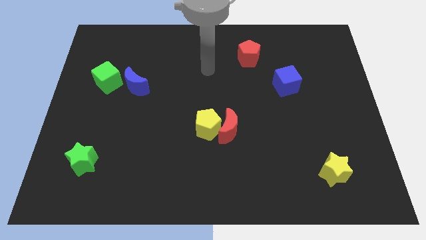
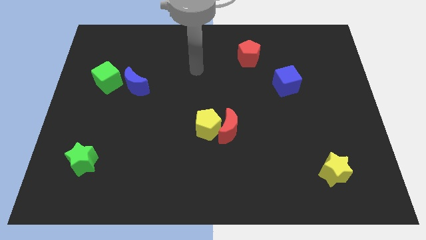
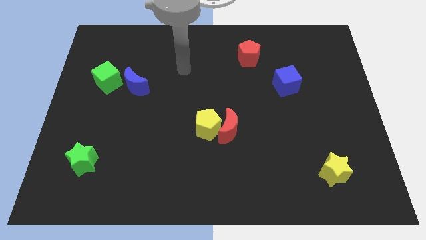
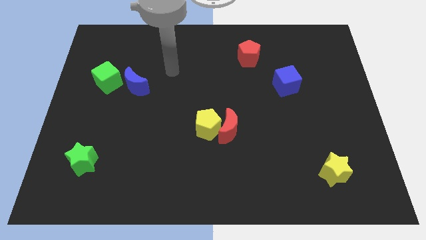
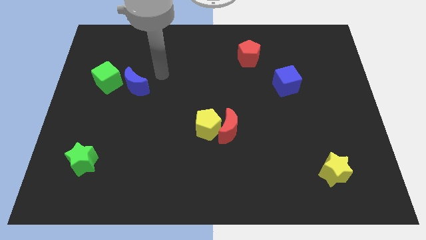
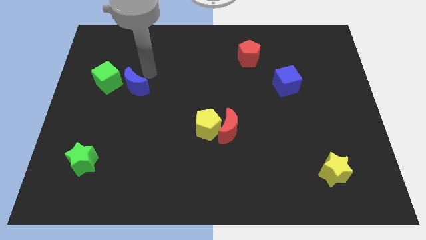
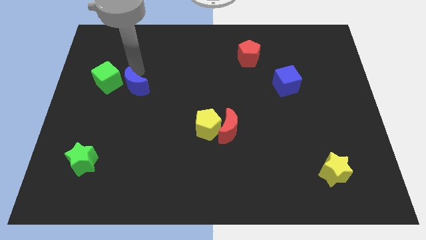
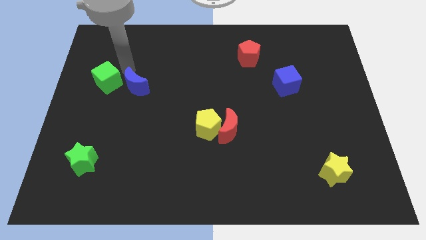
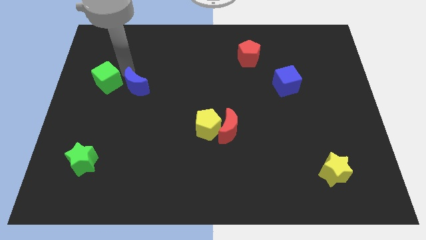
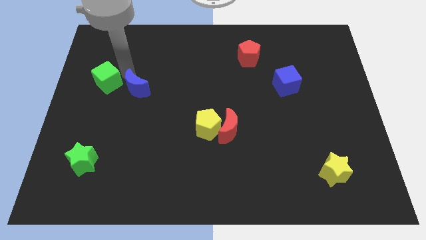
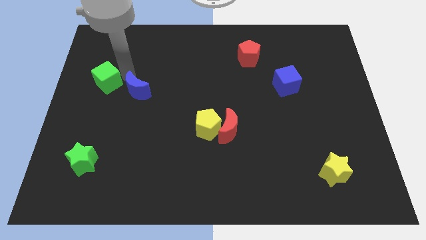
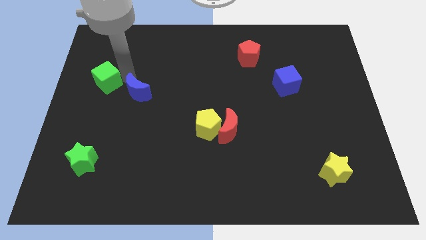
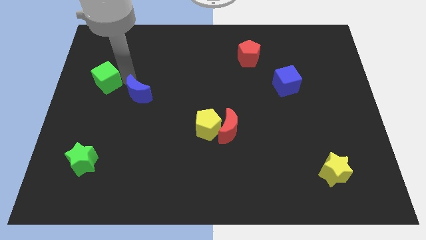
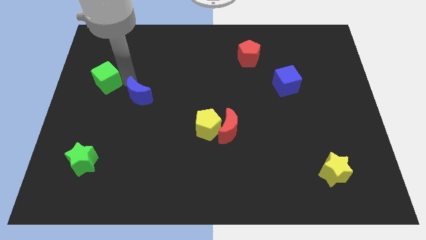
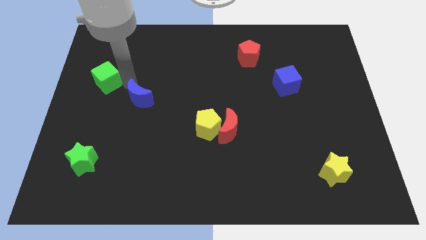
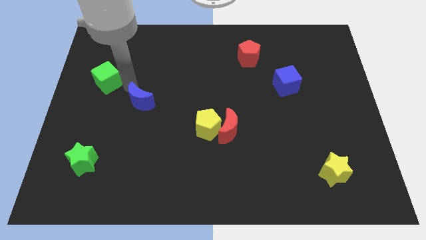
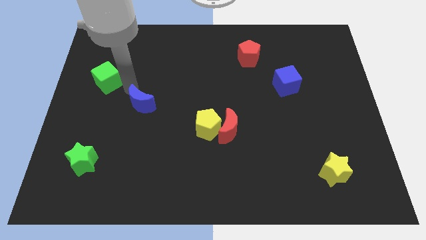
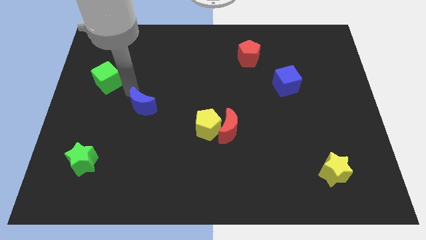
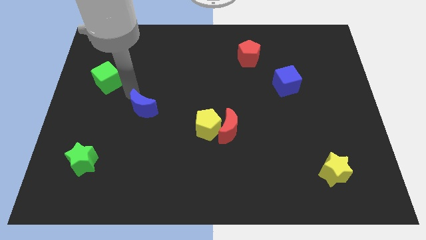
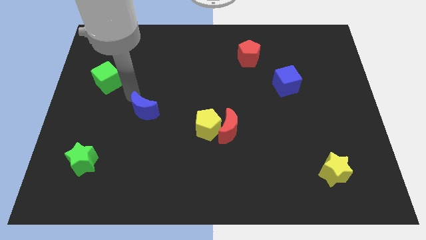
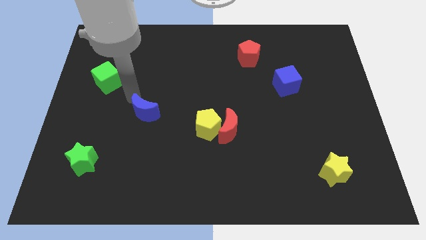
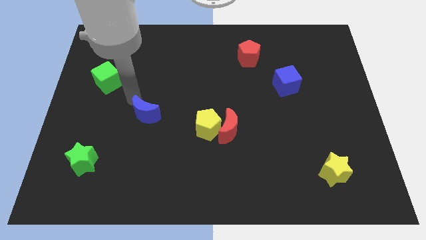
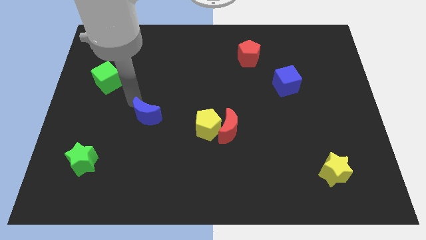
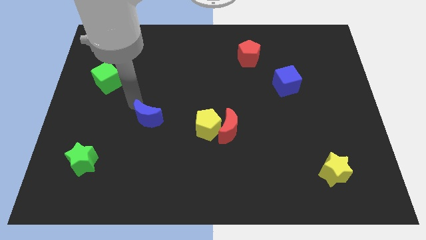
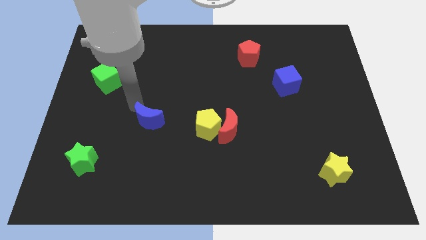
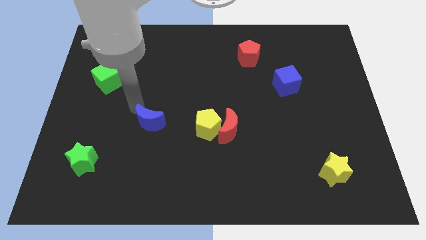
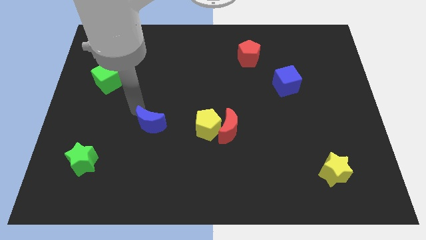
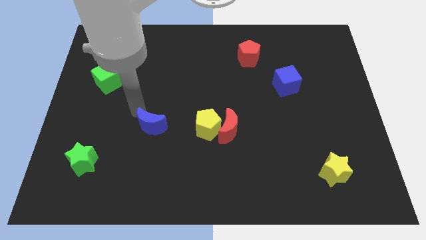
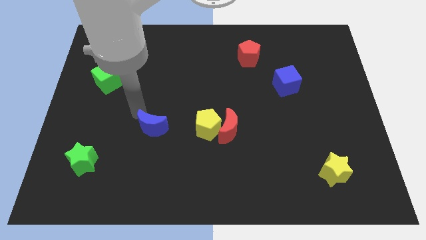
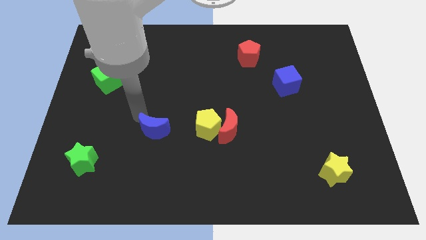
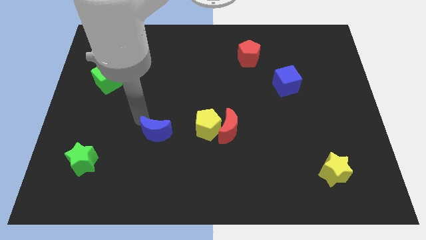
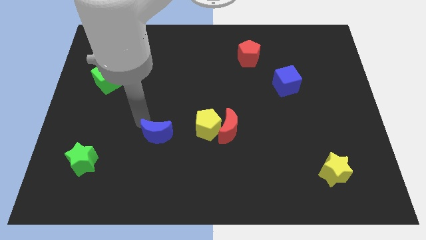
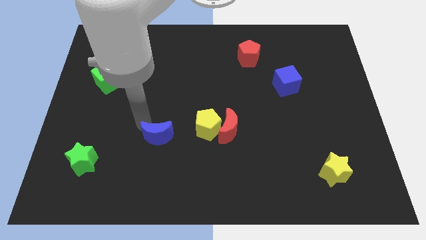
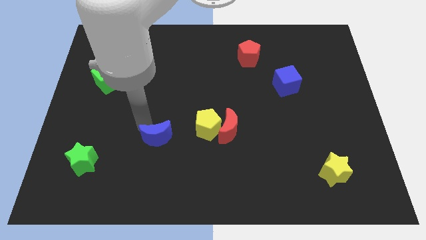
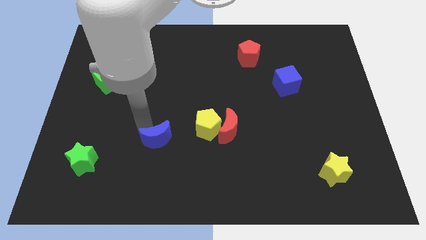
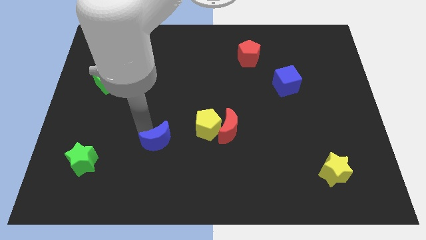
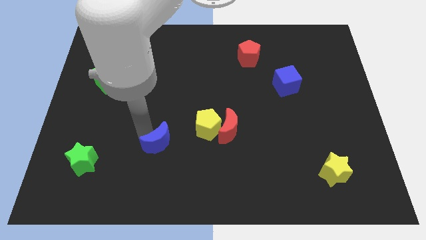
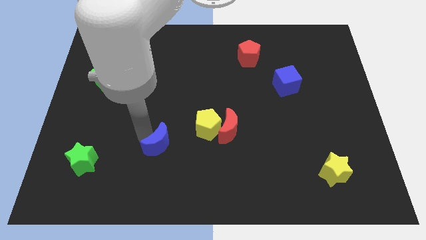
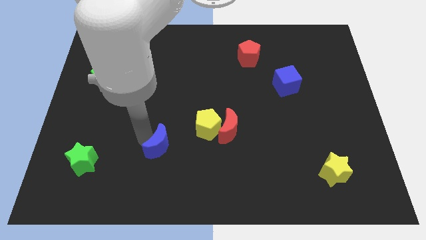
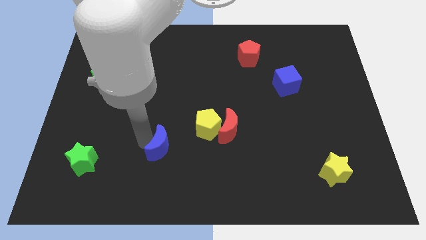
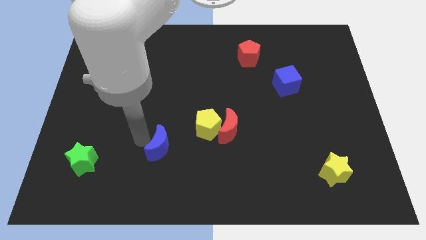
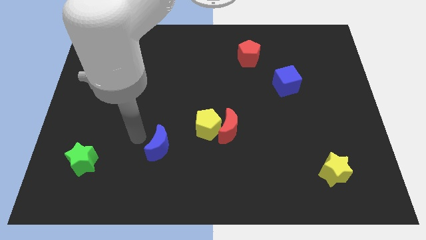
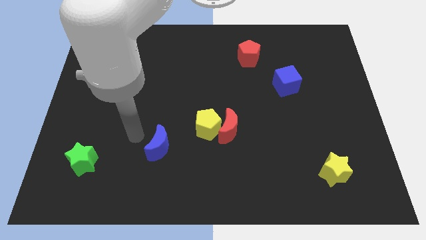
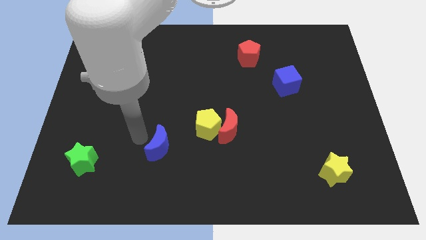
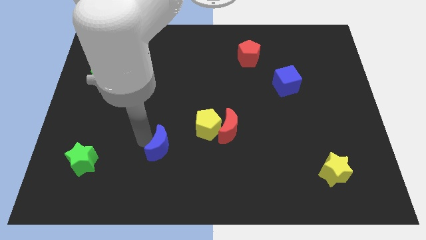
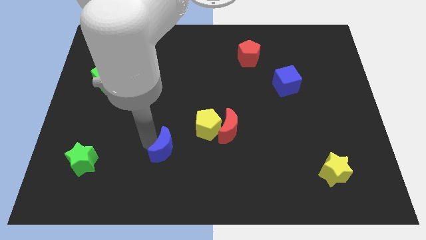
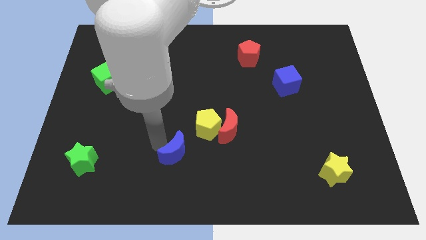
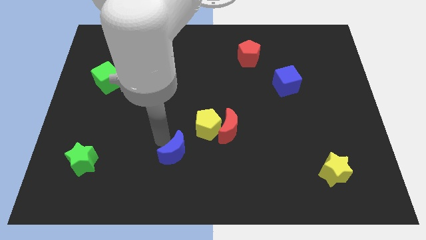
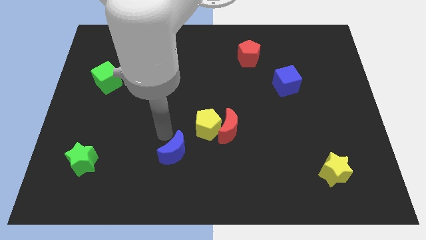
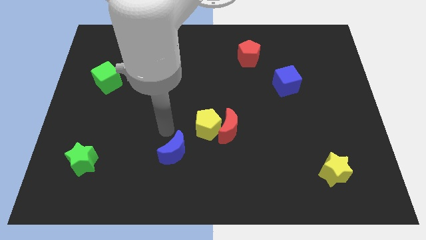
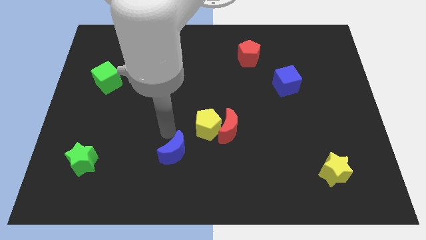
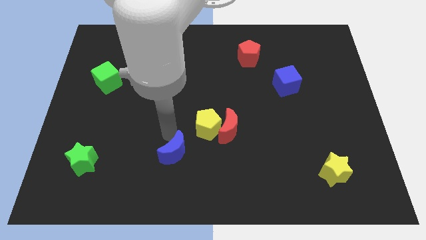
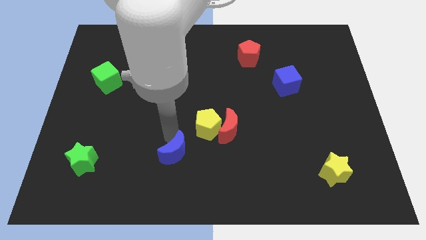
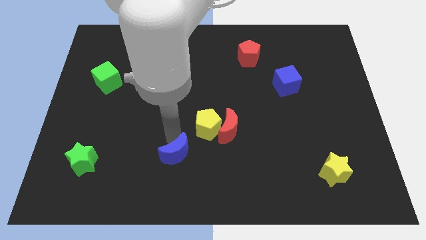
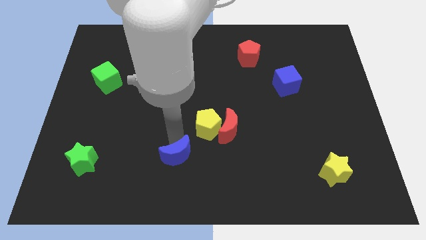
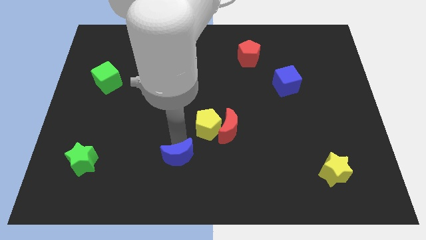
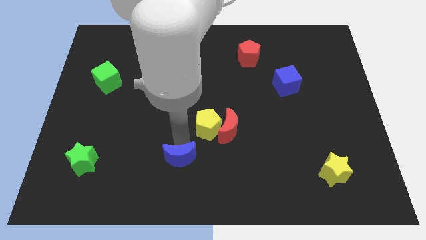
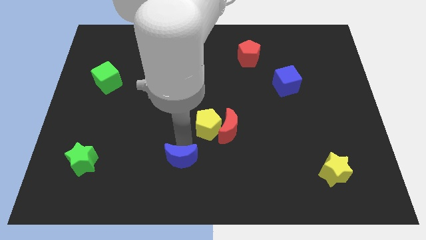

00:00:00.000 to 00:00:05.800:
slide the blue moon to the bottom side

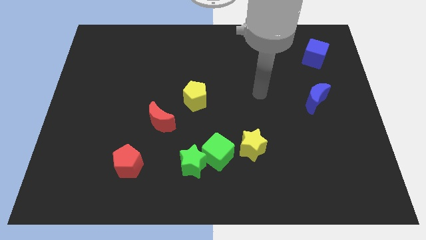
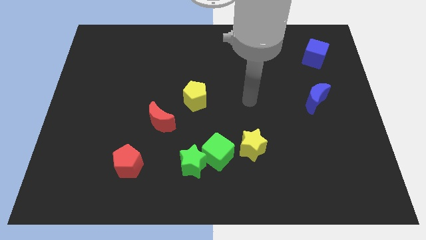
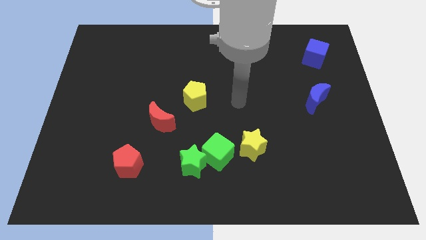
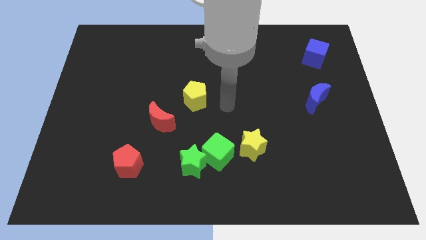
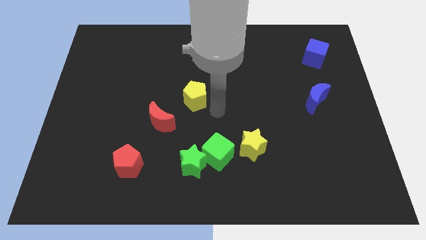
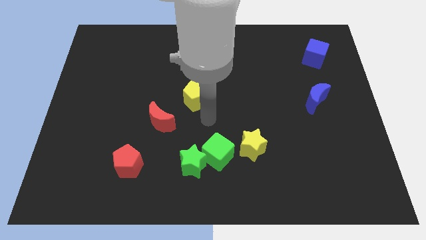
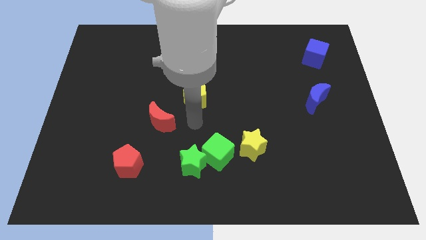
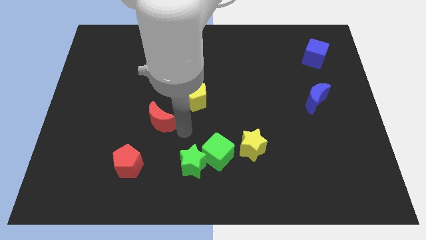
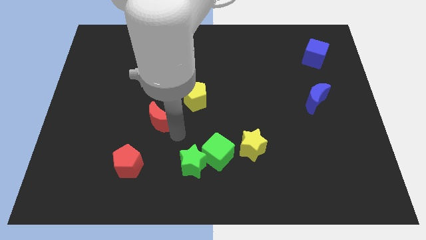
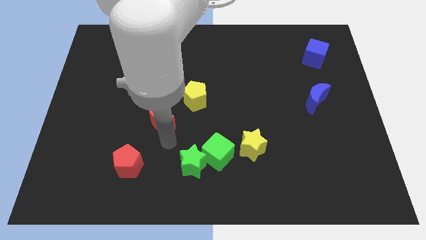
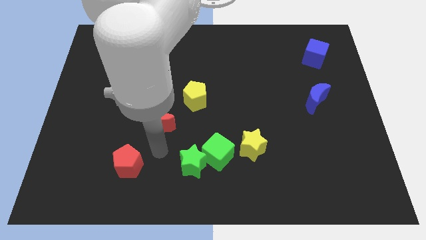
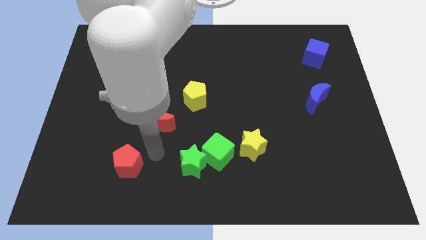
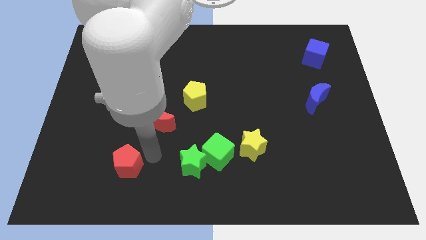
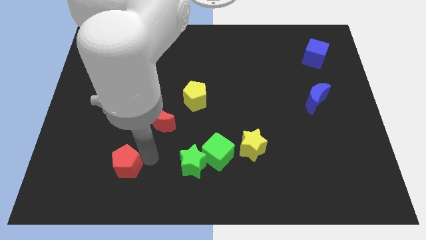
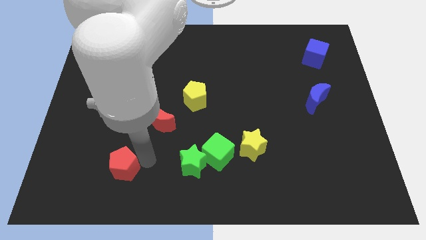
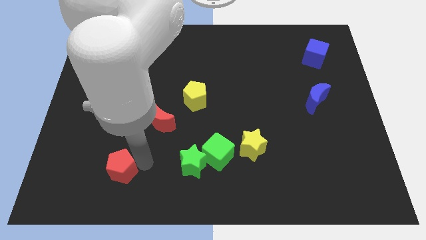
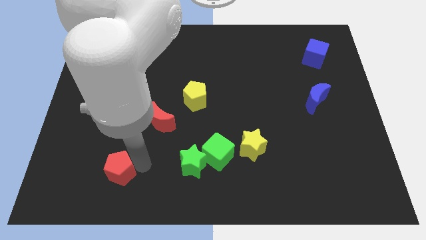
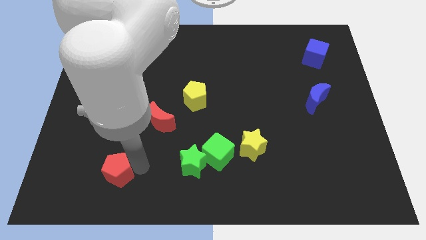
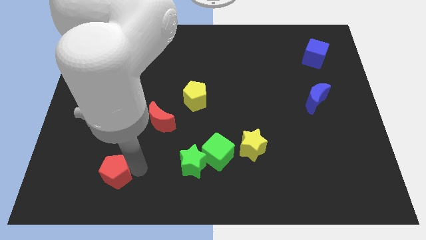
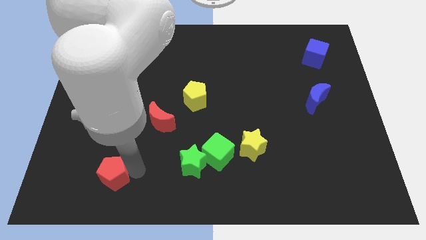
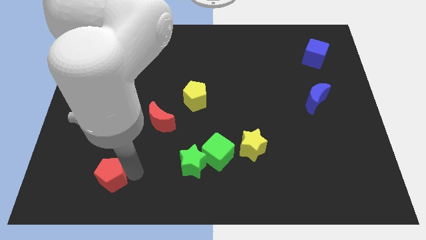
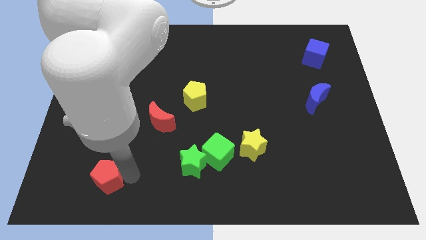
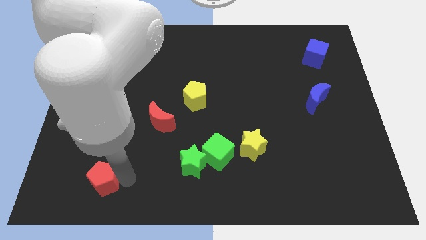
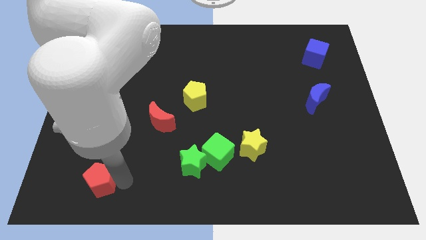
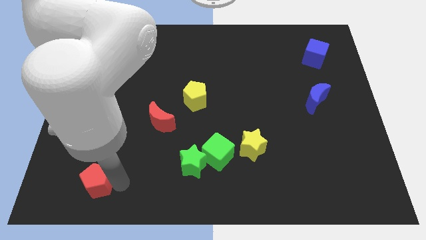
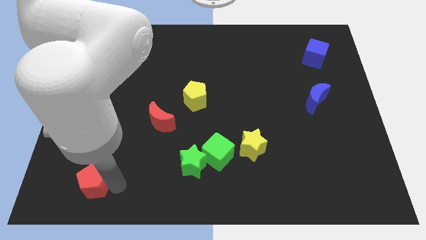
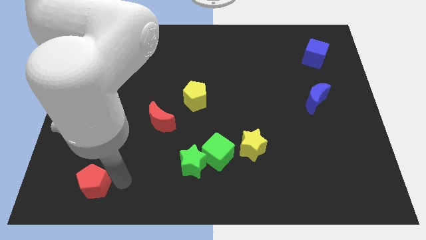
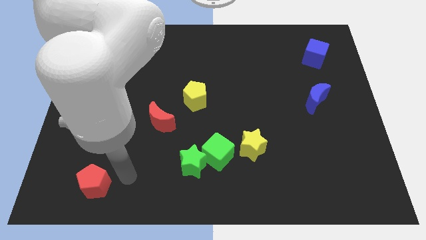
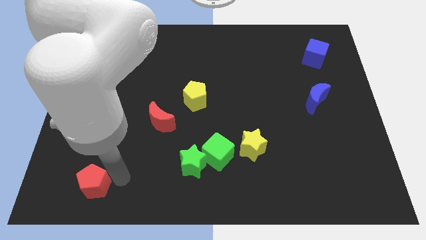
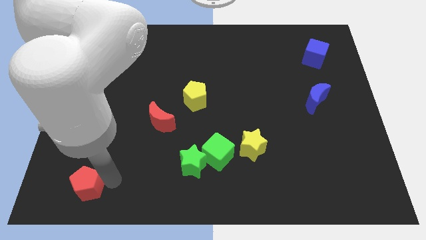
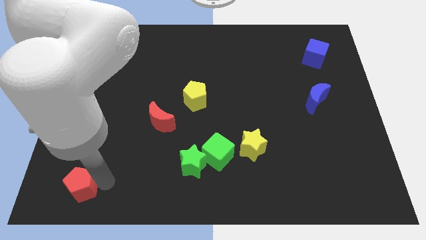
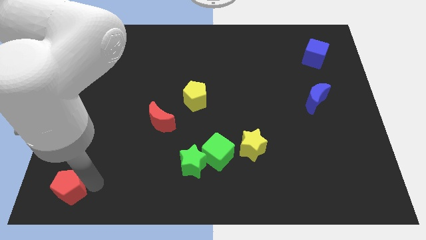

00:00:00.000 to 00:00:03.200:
put the red pentagon to the bottom left of the board
